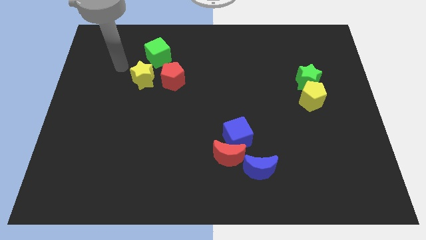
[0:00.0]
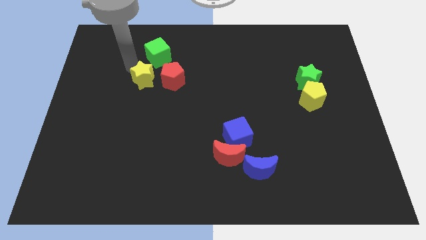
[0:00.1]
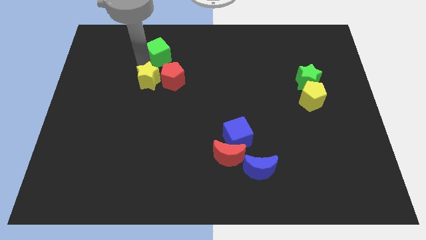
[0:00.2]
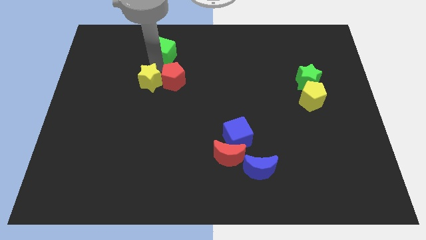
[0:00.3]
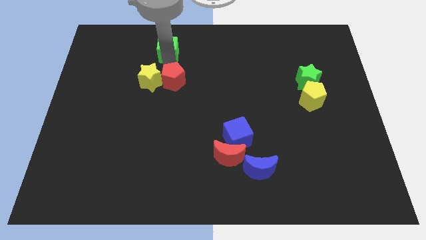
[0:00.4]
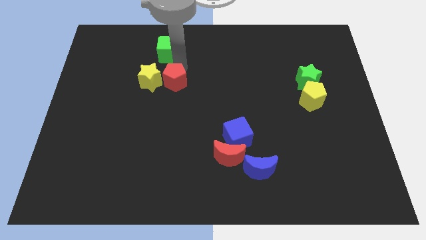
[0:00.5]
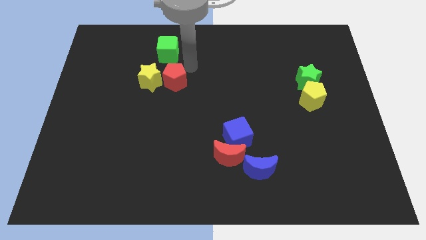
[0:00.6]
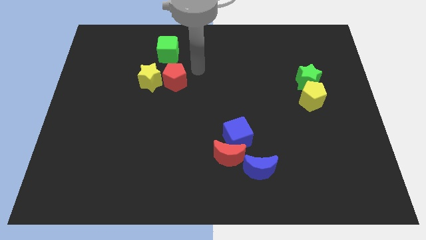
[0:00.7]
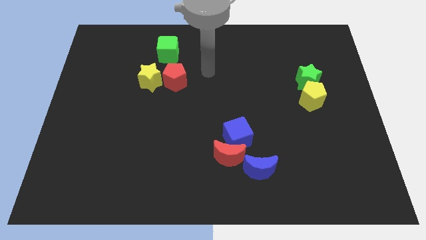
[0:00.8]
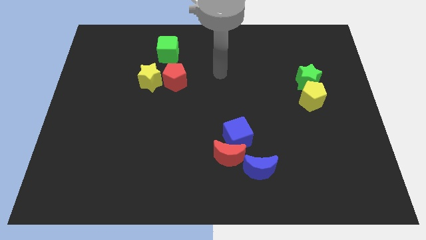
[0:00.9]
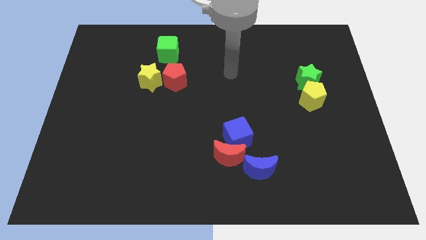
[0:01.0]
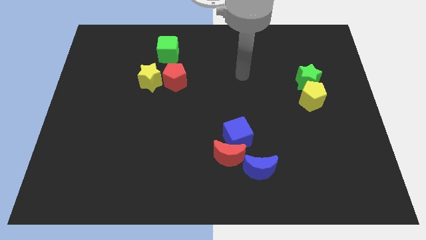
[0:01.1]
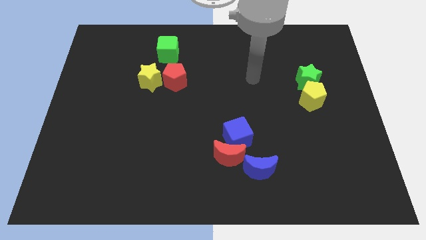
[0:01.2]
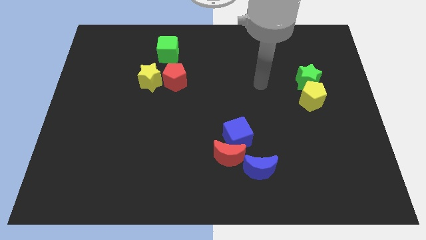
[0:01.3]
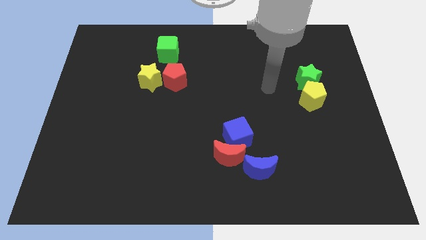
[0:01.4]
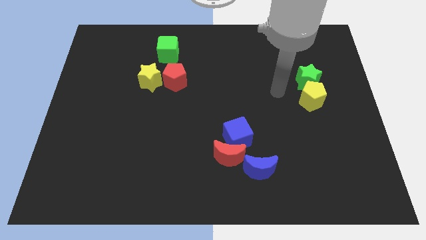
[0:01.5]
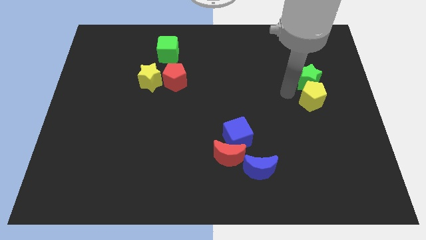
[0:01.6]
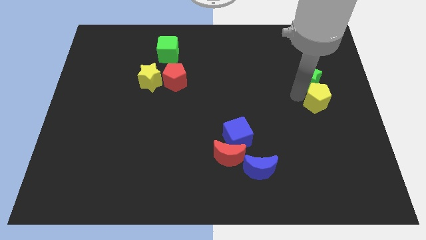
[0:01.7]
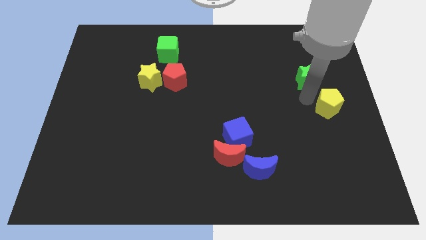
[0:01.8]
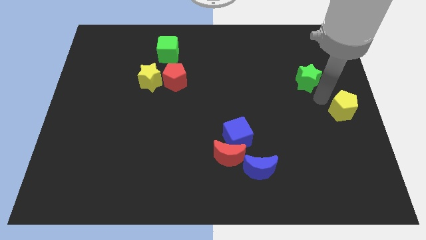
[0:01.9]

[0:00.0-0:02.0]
pull the green star apart from the yellow pentagon

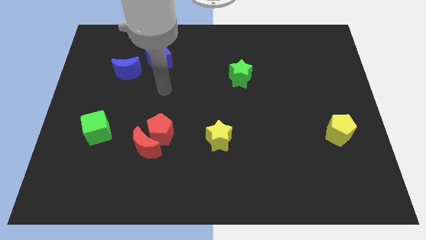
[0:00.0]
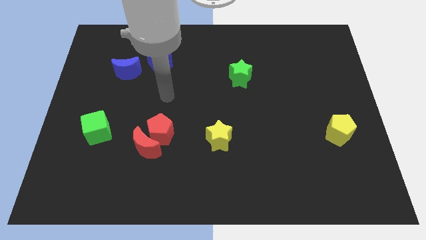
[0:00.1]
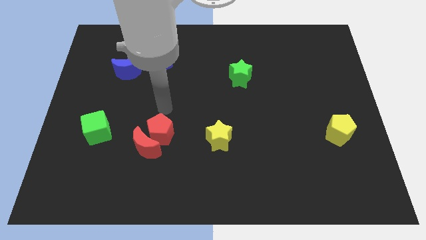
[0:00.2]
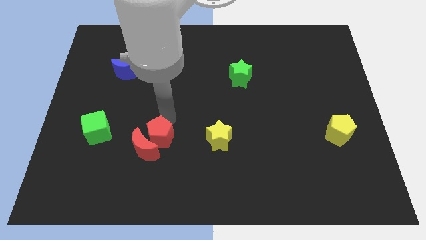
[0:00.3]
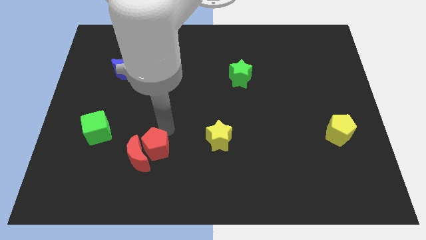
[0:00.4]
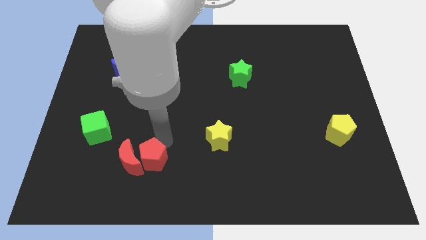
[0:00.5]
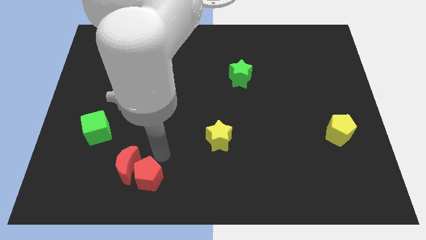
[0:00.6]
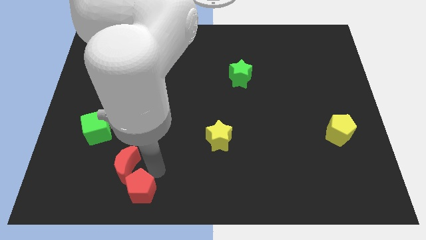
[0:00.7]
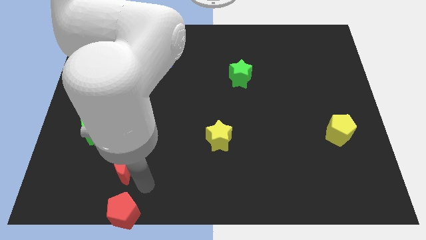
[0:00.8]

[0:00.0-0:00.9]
pull the red moon apart from the red pentagon

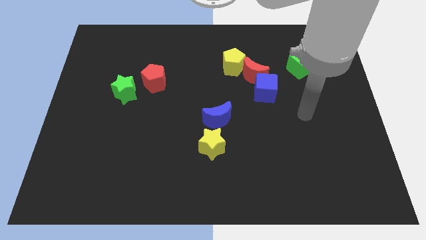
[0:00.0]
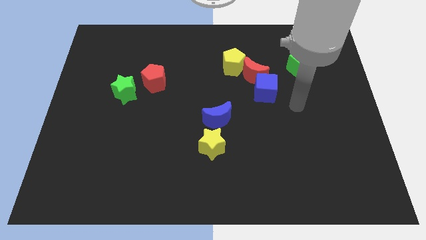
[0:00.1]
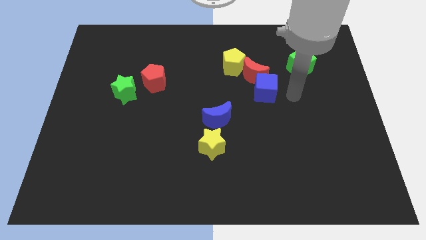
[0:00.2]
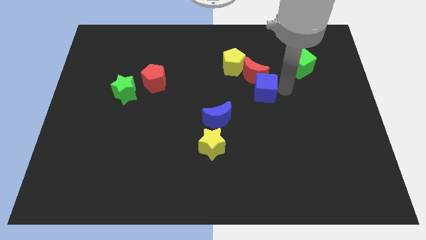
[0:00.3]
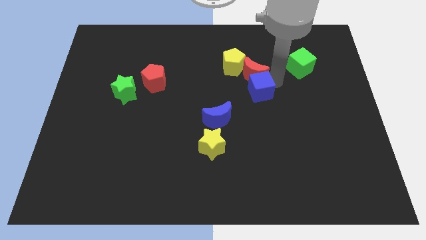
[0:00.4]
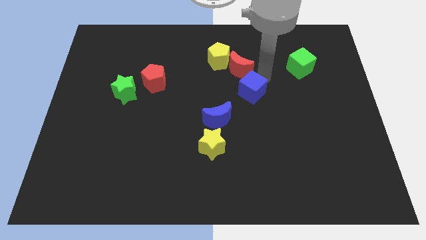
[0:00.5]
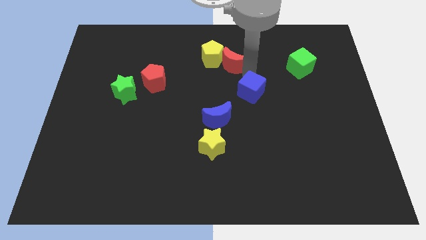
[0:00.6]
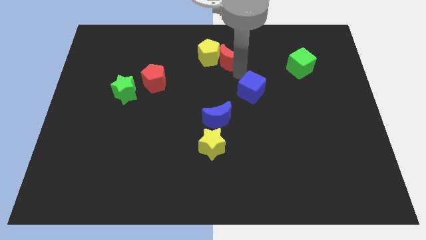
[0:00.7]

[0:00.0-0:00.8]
move the blue cube away from the red moon

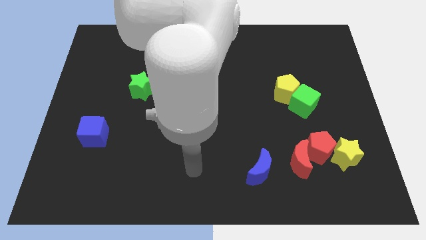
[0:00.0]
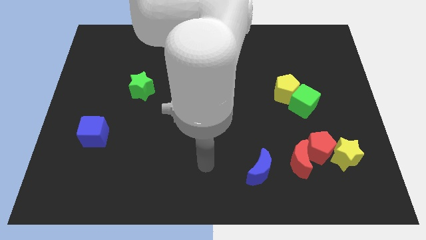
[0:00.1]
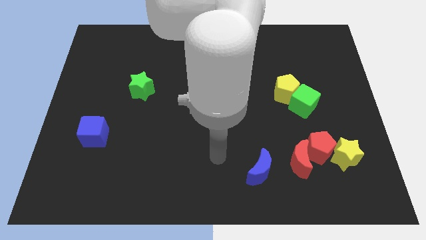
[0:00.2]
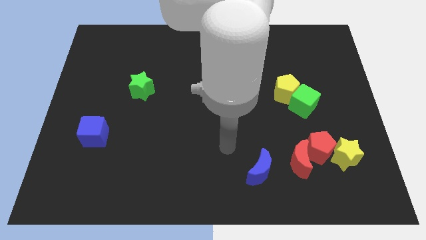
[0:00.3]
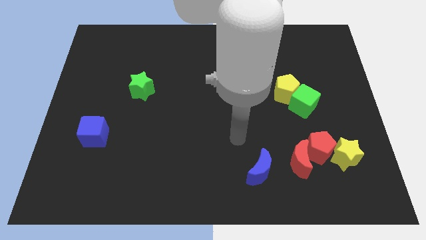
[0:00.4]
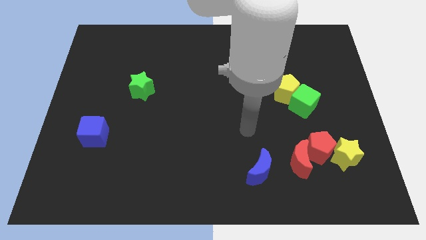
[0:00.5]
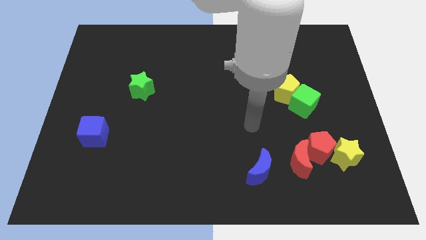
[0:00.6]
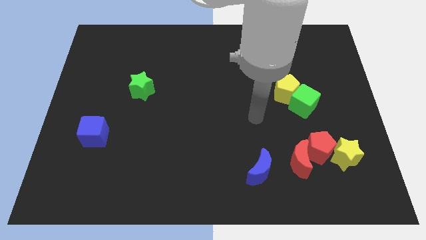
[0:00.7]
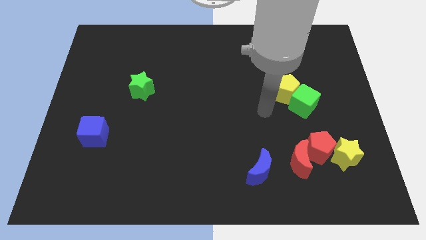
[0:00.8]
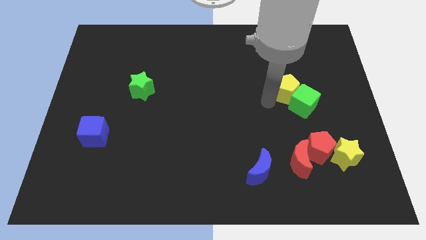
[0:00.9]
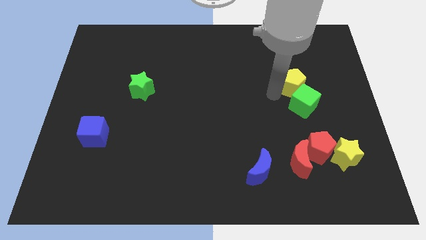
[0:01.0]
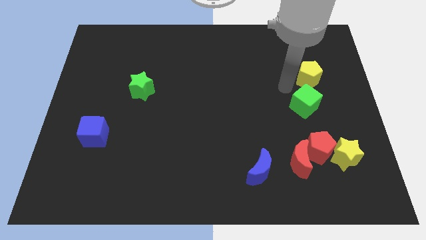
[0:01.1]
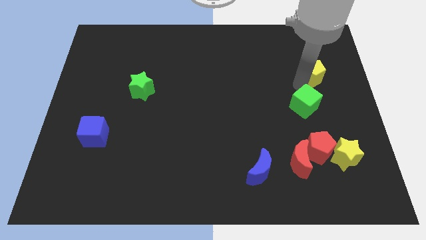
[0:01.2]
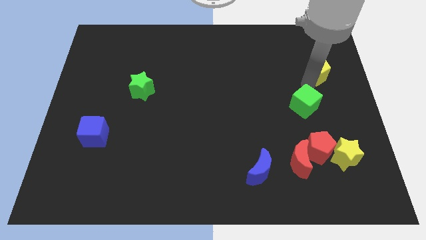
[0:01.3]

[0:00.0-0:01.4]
pull the green cube apart from the yellow pentagon

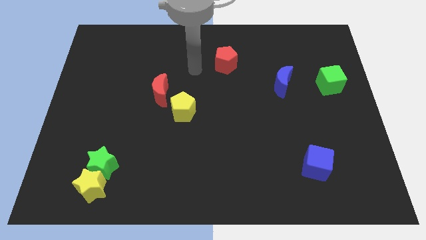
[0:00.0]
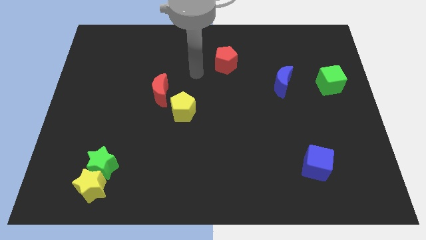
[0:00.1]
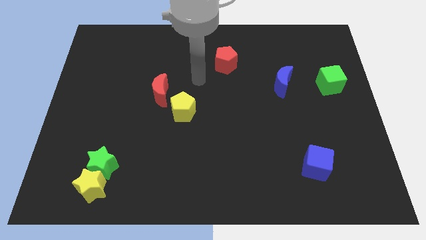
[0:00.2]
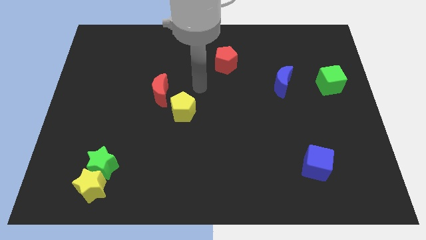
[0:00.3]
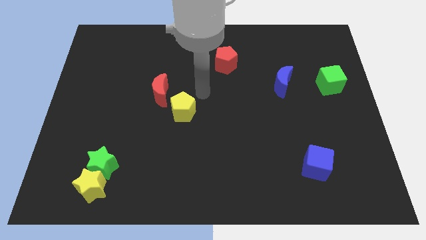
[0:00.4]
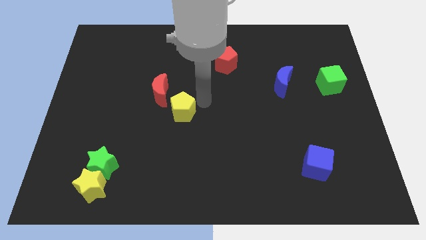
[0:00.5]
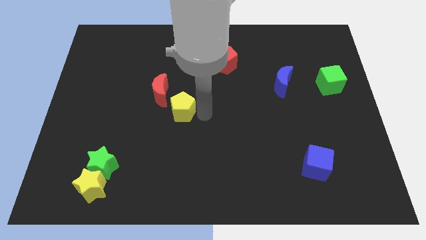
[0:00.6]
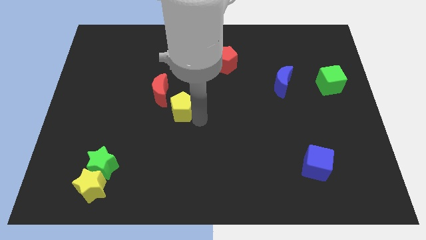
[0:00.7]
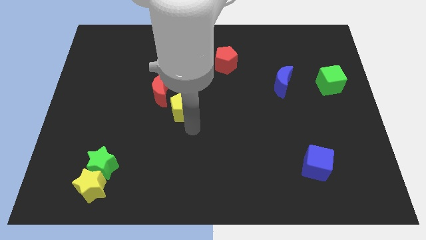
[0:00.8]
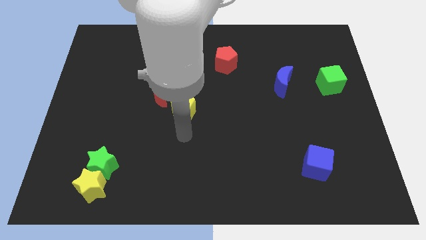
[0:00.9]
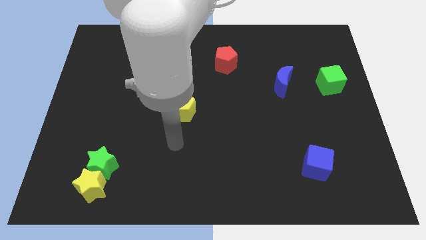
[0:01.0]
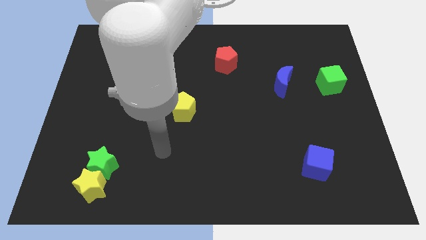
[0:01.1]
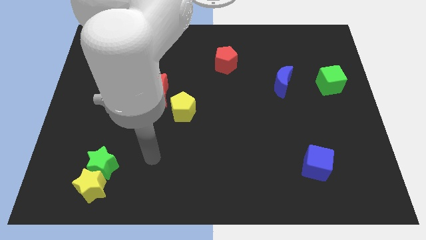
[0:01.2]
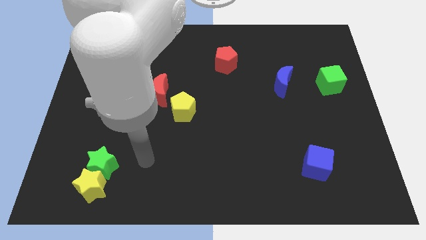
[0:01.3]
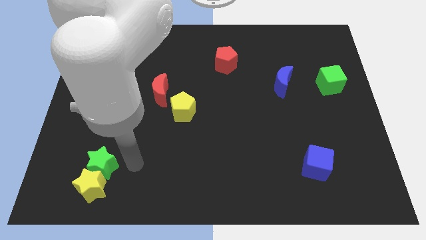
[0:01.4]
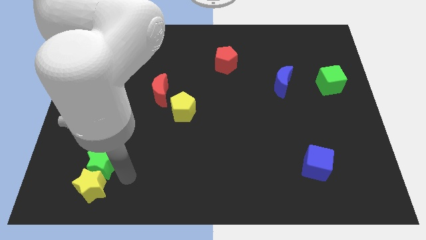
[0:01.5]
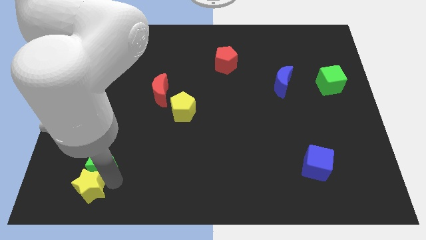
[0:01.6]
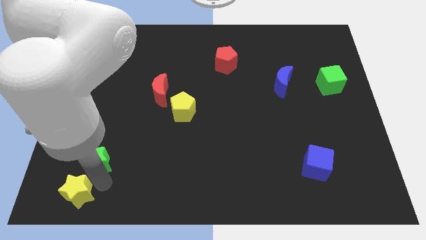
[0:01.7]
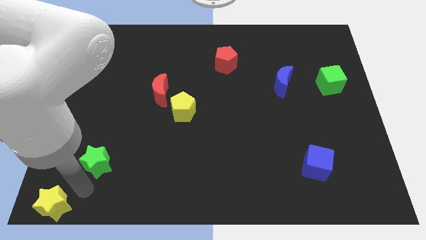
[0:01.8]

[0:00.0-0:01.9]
pull the green star apart from the yellow star

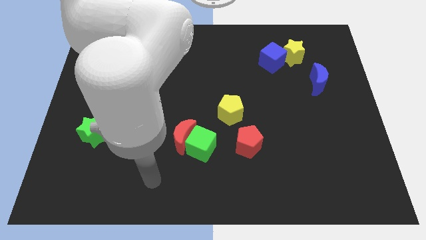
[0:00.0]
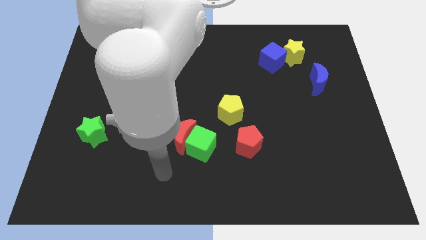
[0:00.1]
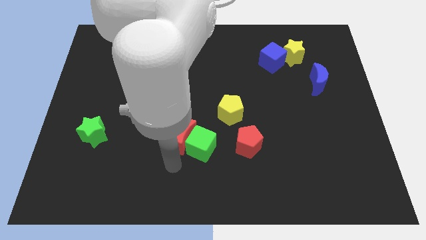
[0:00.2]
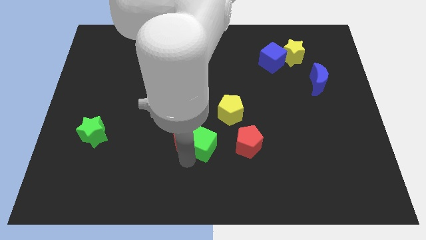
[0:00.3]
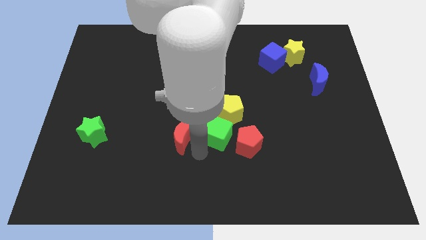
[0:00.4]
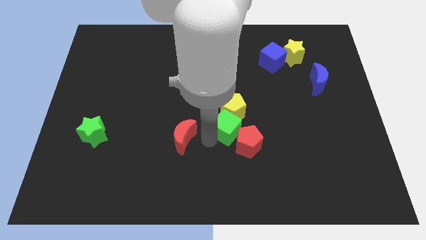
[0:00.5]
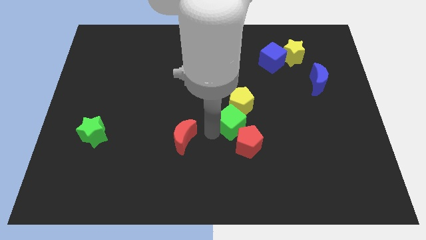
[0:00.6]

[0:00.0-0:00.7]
pull the red moon apart from the green cube

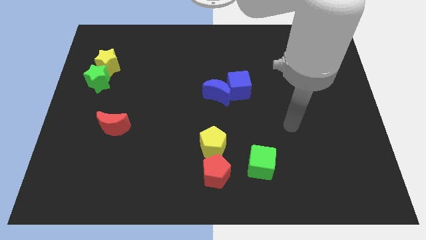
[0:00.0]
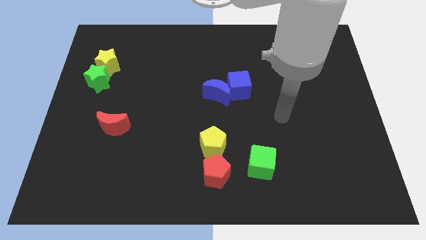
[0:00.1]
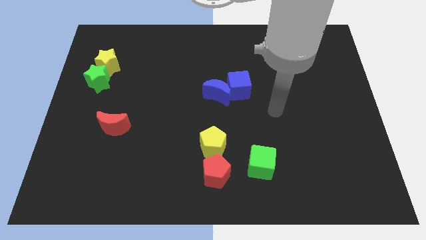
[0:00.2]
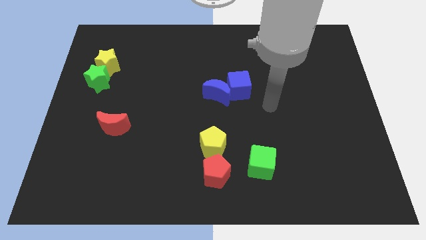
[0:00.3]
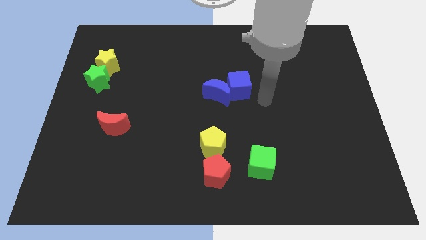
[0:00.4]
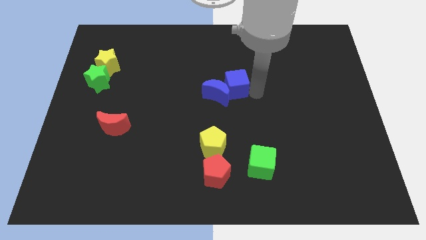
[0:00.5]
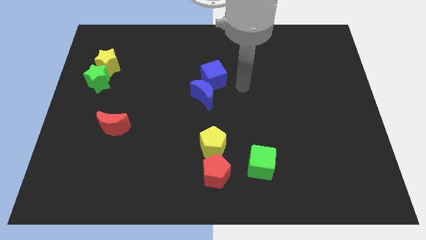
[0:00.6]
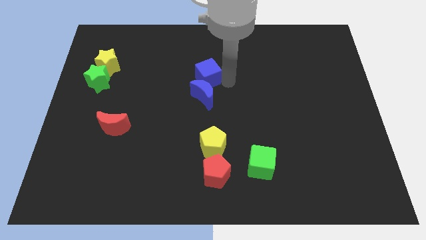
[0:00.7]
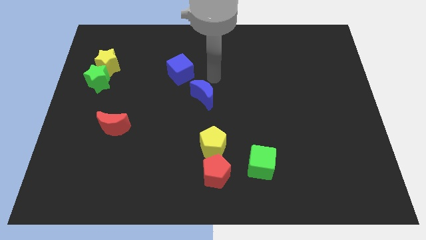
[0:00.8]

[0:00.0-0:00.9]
move the blue moon away from the blue cube

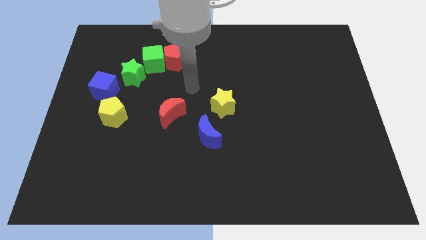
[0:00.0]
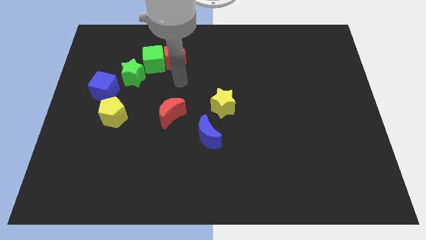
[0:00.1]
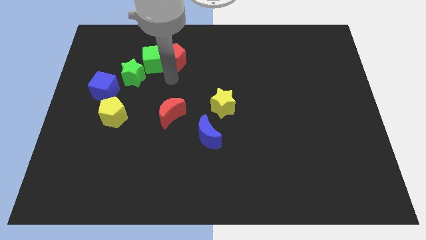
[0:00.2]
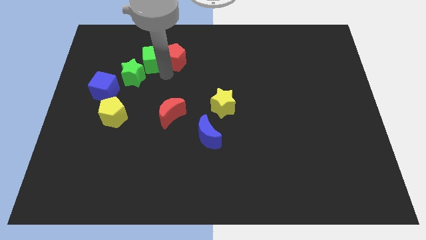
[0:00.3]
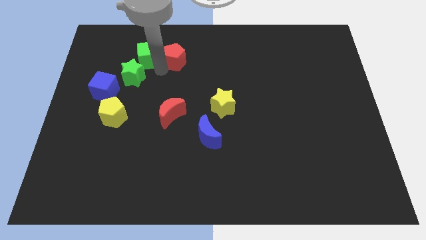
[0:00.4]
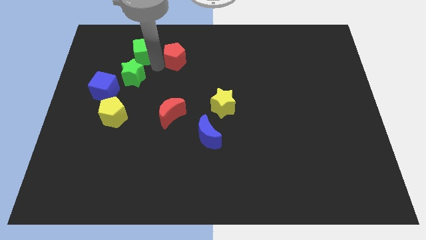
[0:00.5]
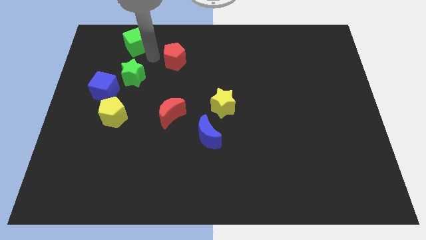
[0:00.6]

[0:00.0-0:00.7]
pull the red pentagon apart from the green cube
